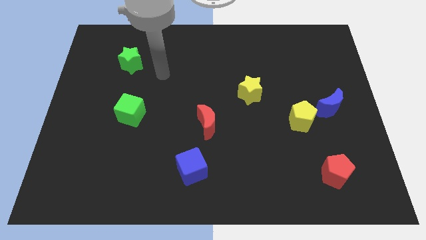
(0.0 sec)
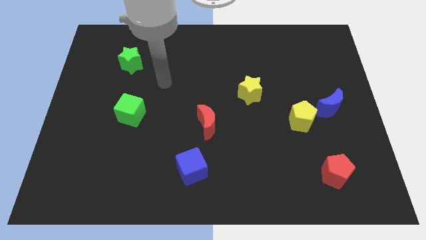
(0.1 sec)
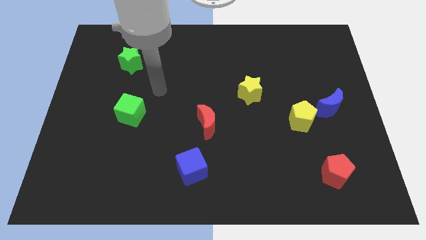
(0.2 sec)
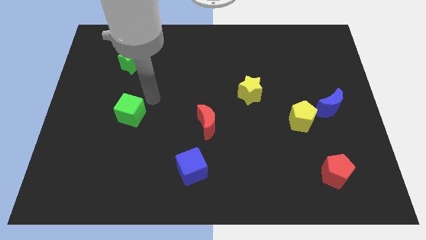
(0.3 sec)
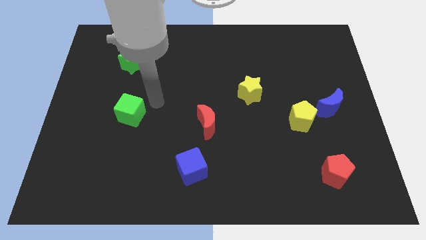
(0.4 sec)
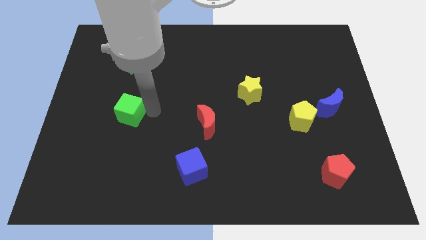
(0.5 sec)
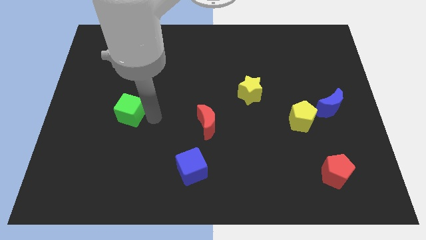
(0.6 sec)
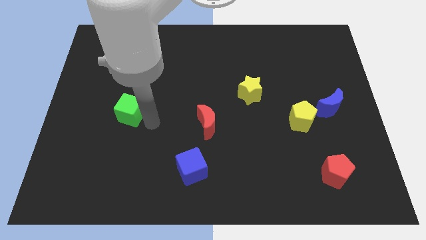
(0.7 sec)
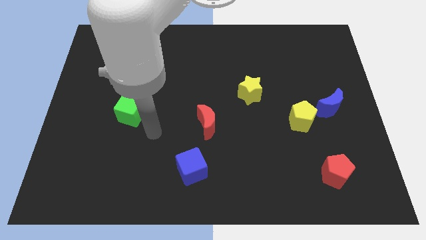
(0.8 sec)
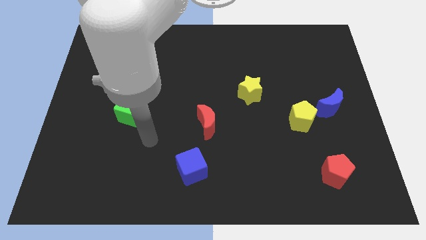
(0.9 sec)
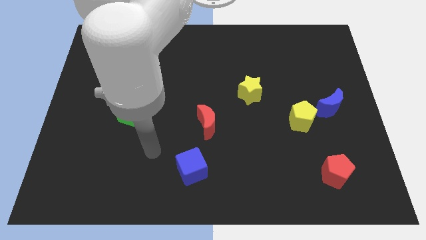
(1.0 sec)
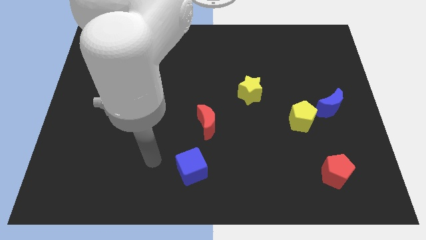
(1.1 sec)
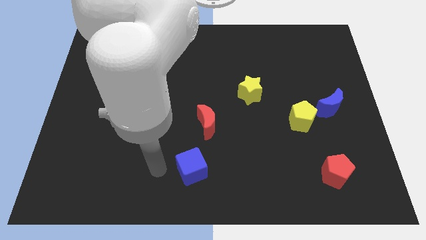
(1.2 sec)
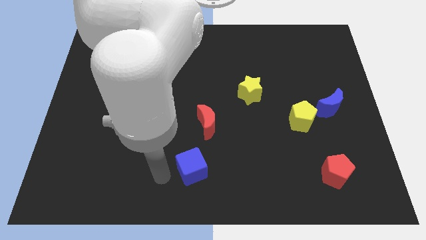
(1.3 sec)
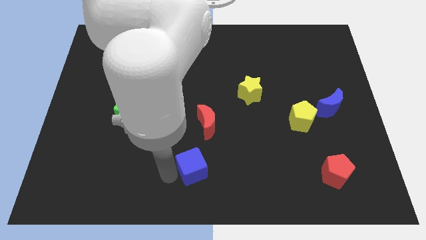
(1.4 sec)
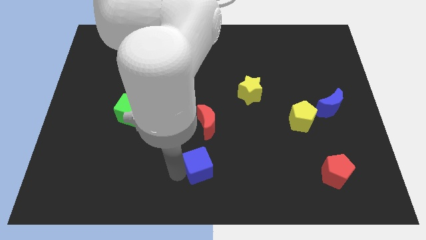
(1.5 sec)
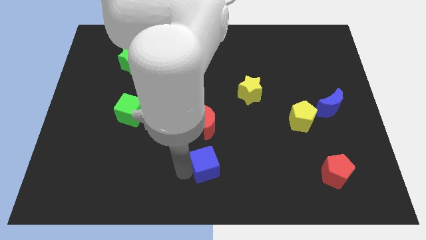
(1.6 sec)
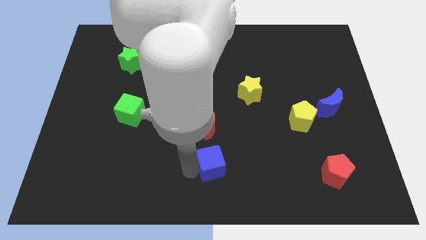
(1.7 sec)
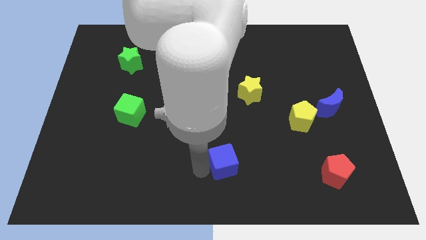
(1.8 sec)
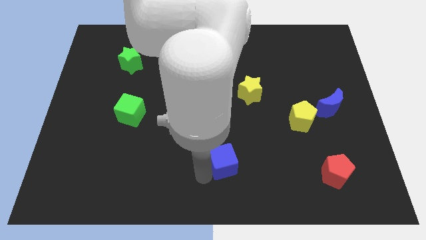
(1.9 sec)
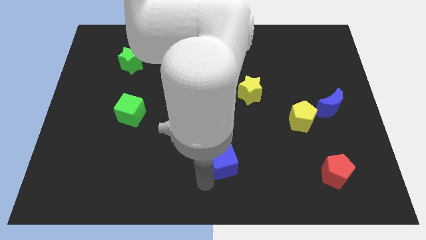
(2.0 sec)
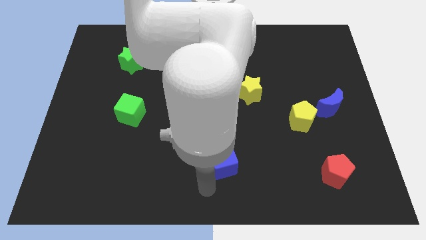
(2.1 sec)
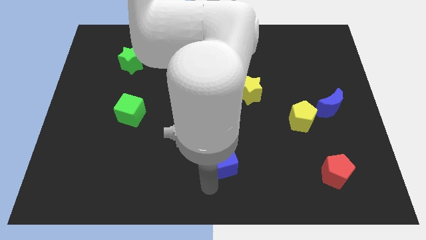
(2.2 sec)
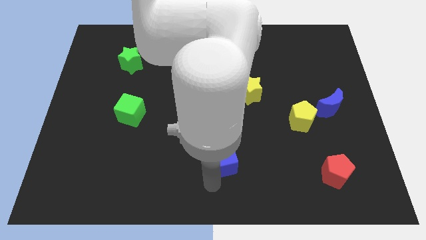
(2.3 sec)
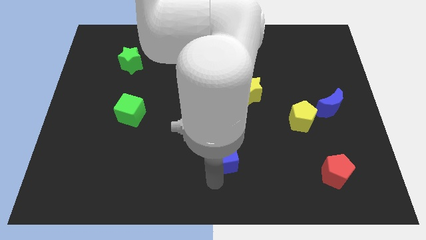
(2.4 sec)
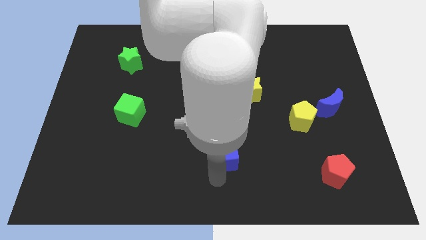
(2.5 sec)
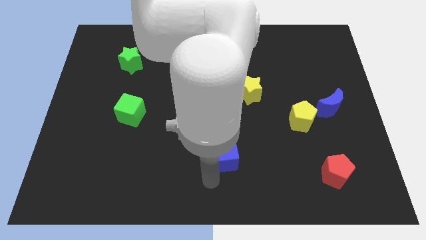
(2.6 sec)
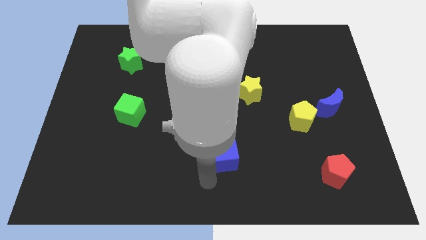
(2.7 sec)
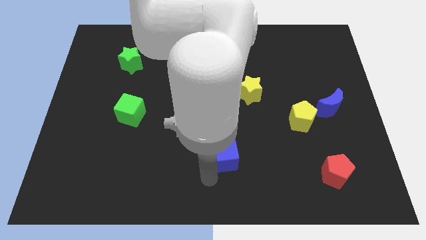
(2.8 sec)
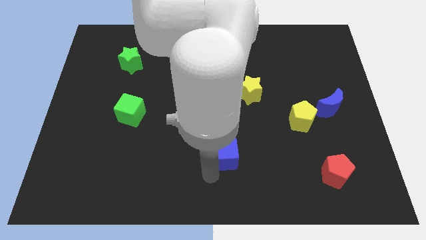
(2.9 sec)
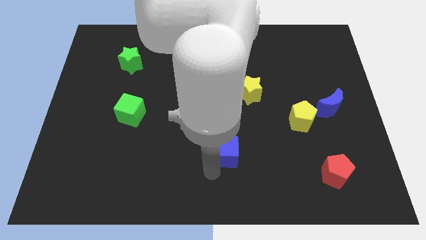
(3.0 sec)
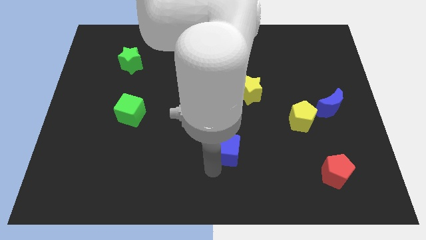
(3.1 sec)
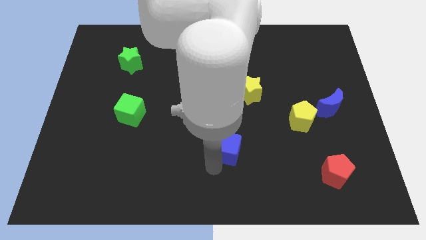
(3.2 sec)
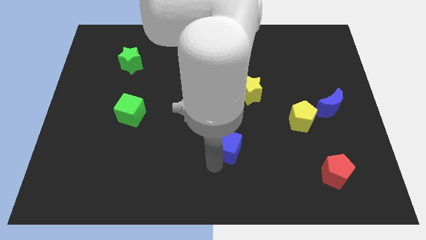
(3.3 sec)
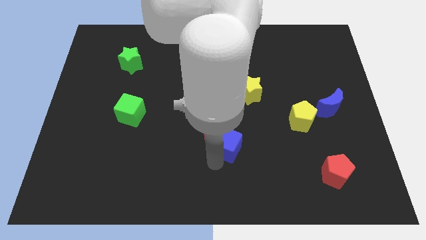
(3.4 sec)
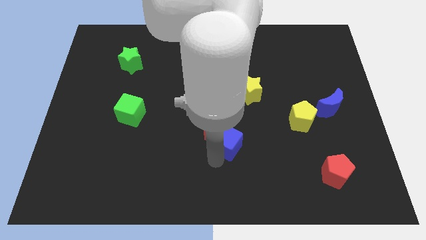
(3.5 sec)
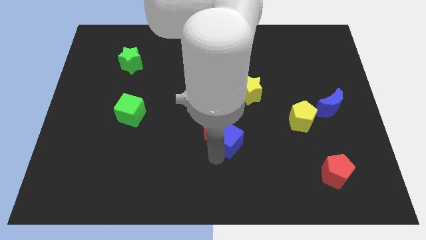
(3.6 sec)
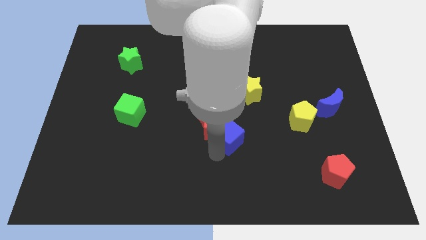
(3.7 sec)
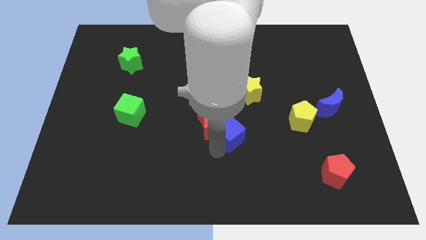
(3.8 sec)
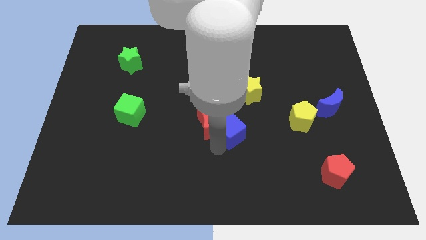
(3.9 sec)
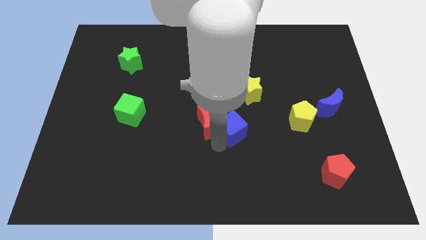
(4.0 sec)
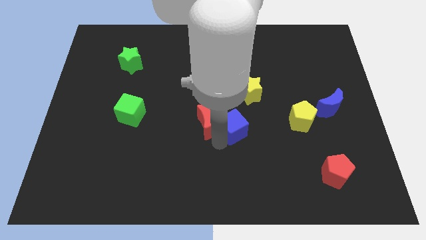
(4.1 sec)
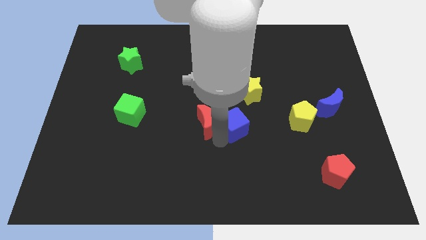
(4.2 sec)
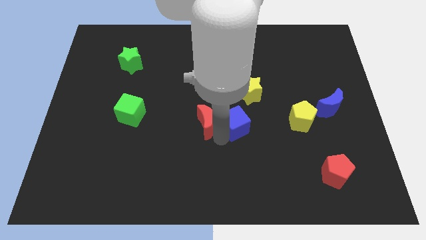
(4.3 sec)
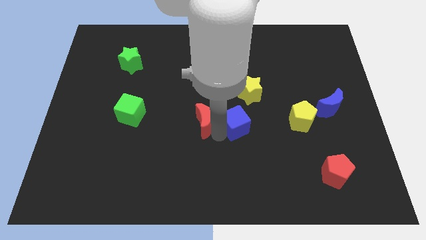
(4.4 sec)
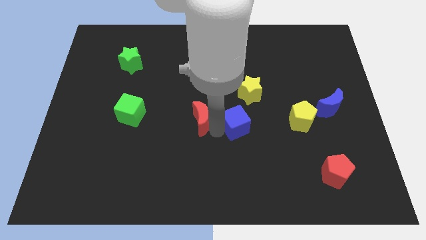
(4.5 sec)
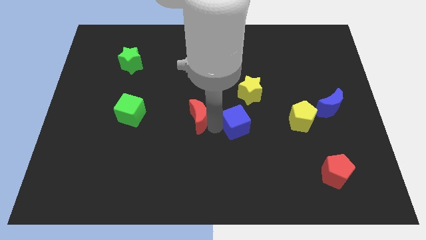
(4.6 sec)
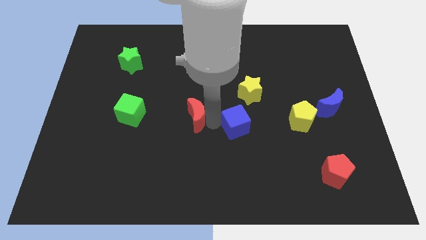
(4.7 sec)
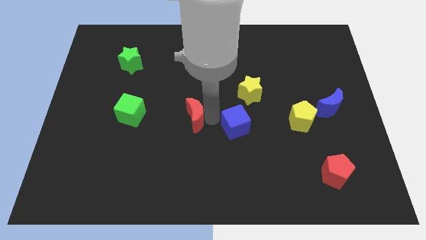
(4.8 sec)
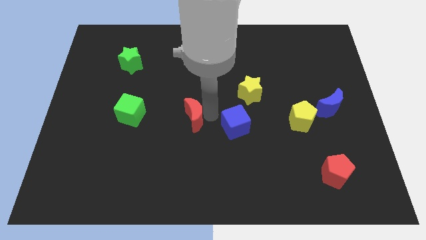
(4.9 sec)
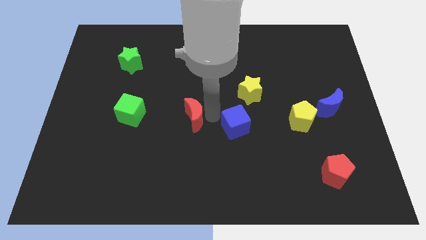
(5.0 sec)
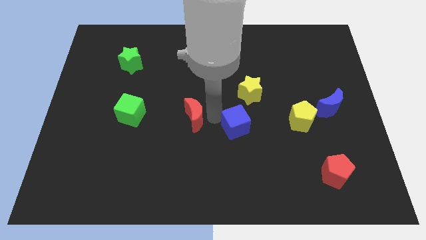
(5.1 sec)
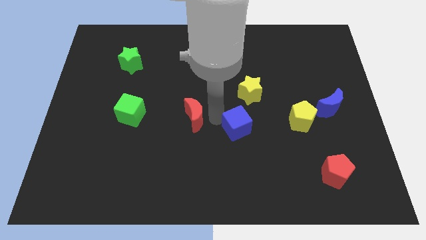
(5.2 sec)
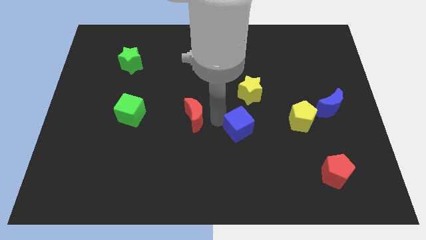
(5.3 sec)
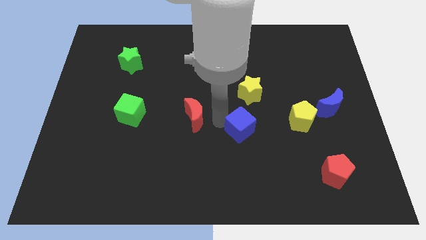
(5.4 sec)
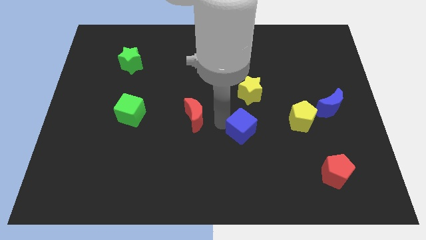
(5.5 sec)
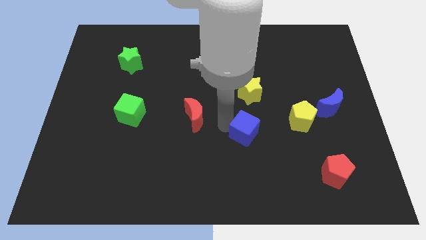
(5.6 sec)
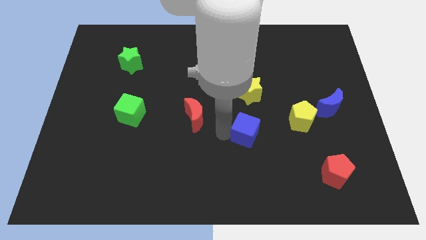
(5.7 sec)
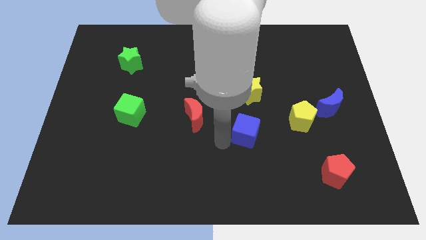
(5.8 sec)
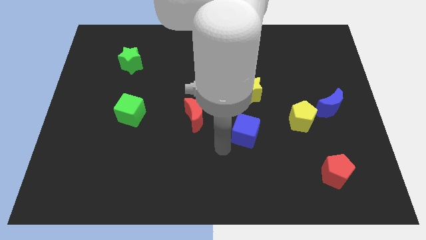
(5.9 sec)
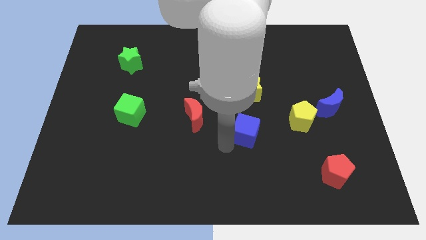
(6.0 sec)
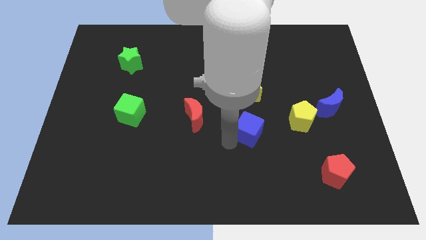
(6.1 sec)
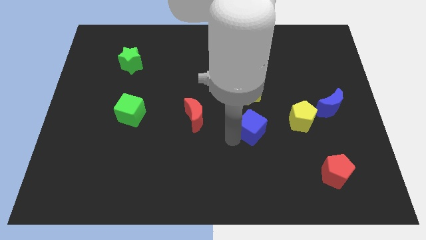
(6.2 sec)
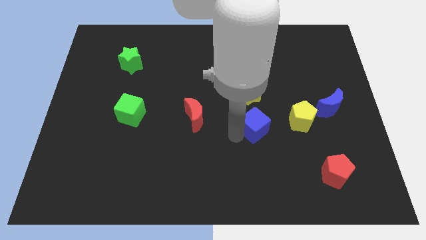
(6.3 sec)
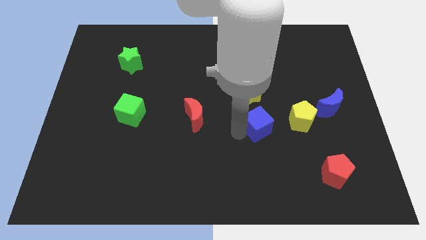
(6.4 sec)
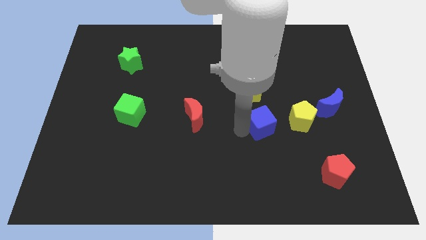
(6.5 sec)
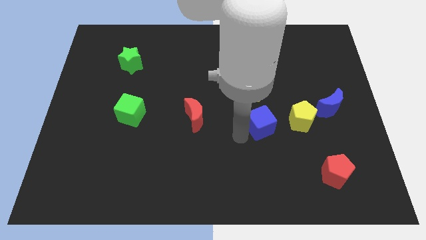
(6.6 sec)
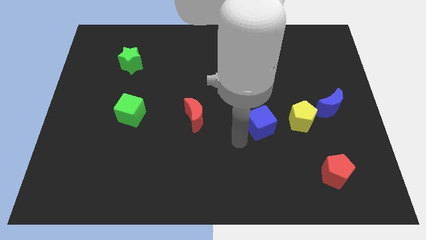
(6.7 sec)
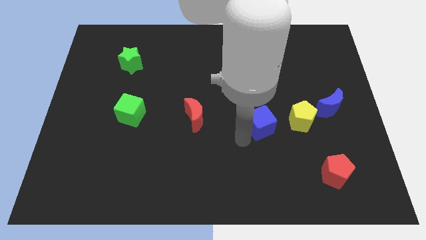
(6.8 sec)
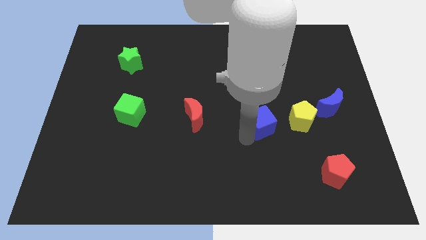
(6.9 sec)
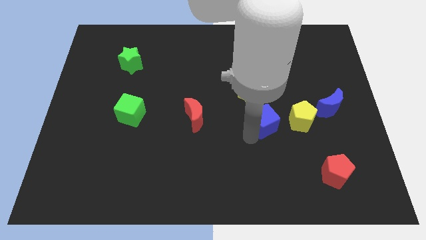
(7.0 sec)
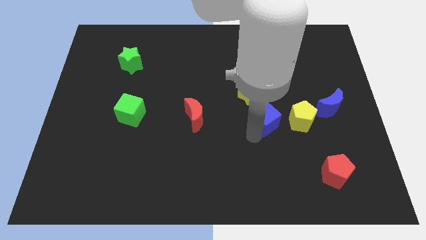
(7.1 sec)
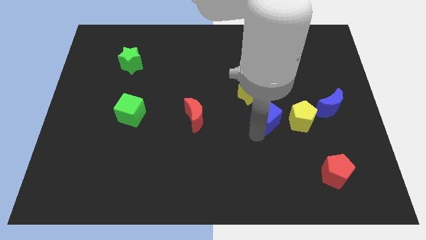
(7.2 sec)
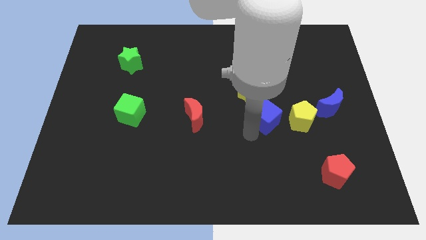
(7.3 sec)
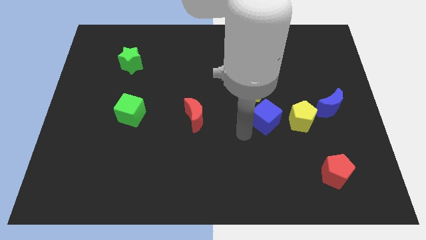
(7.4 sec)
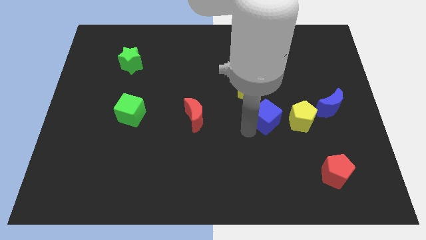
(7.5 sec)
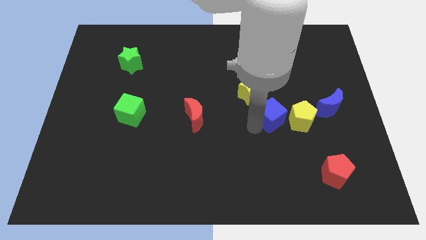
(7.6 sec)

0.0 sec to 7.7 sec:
push the blue cube left of the blue moon
